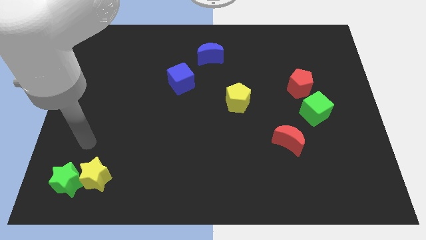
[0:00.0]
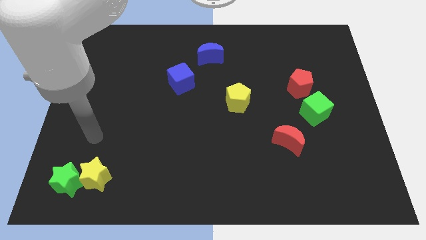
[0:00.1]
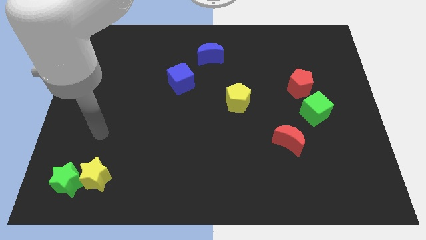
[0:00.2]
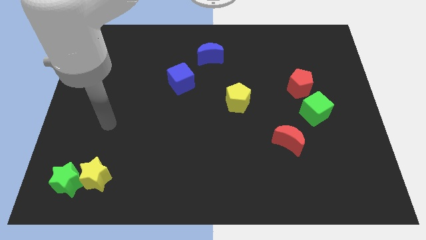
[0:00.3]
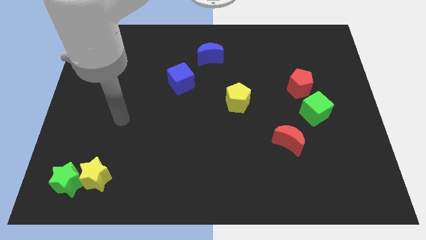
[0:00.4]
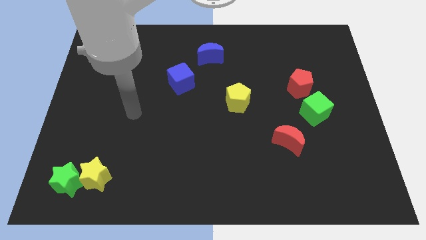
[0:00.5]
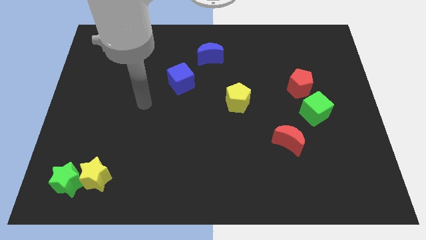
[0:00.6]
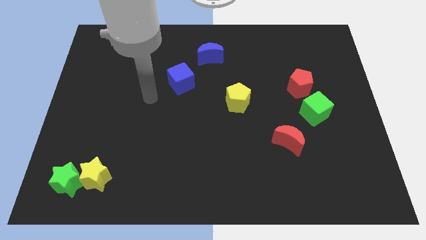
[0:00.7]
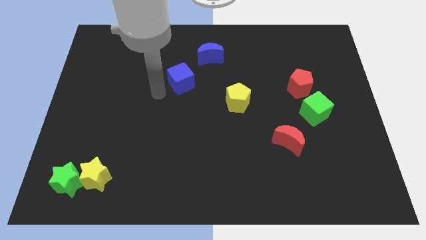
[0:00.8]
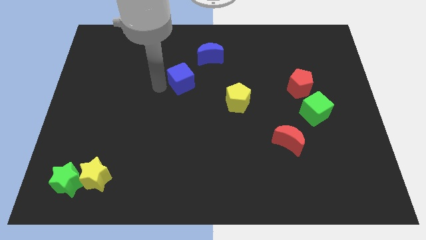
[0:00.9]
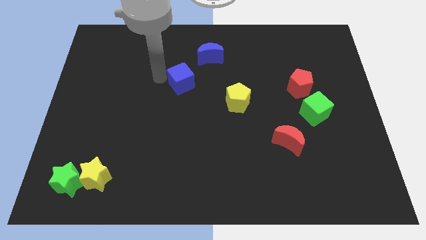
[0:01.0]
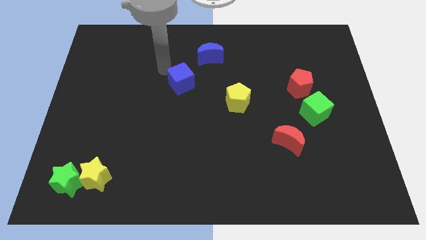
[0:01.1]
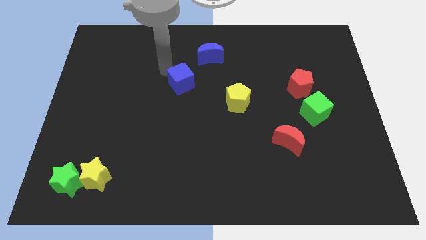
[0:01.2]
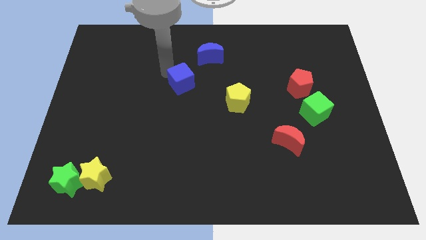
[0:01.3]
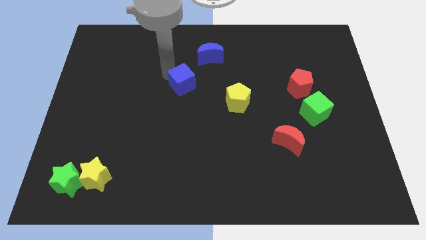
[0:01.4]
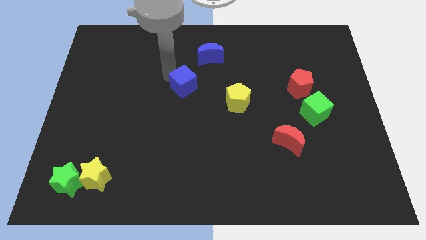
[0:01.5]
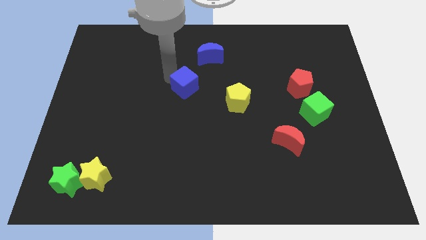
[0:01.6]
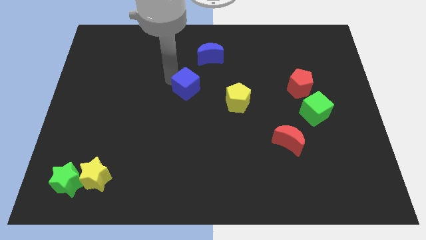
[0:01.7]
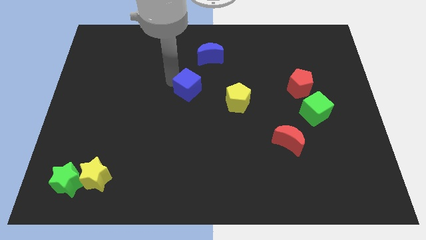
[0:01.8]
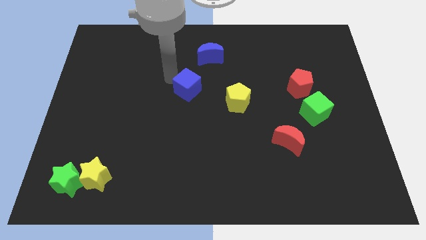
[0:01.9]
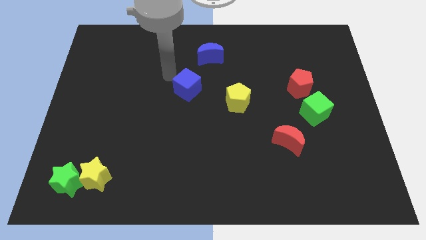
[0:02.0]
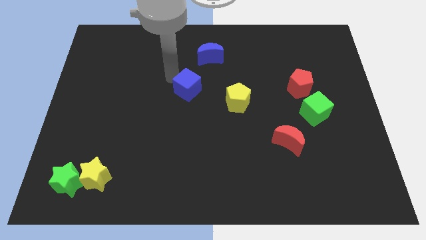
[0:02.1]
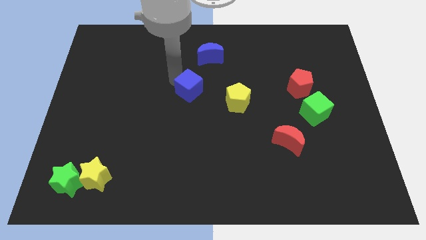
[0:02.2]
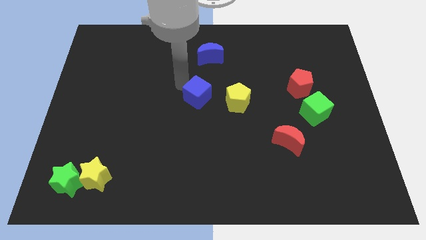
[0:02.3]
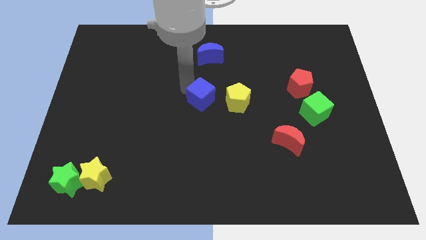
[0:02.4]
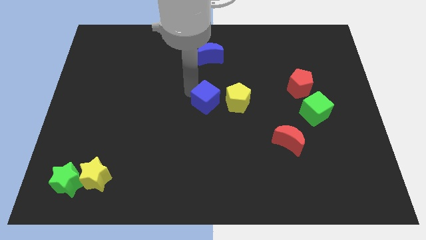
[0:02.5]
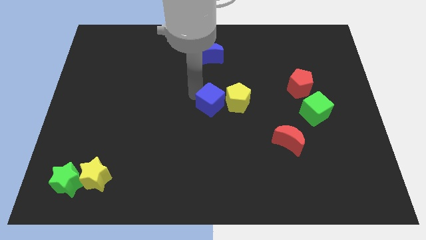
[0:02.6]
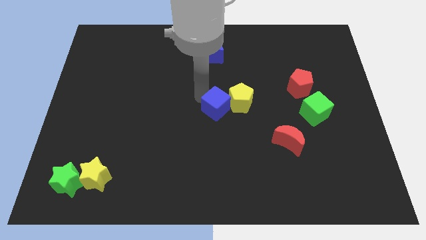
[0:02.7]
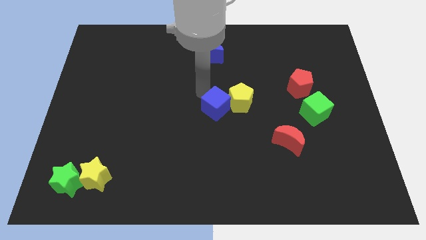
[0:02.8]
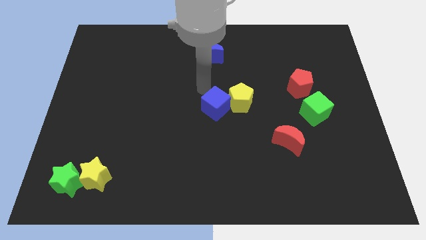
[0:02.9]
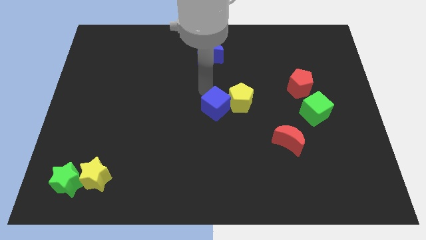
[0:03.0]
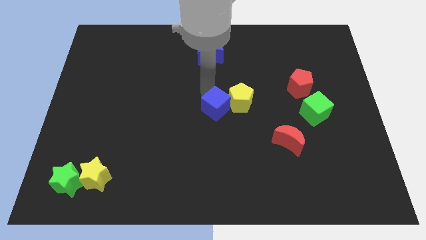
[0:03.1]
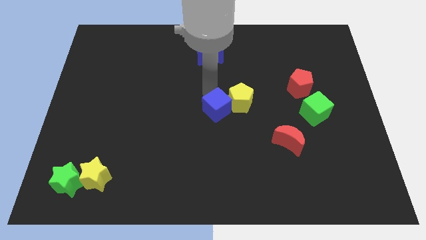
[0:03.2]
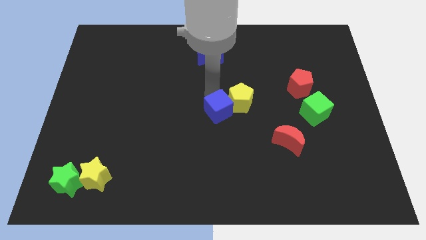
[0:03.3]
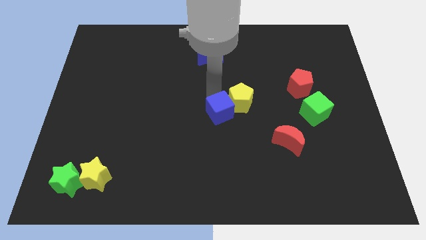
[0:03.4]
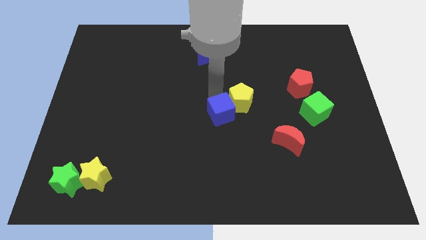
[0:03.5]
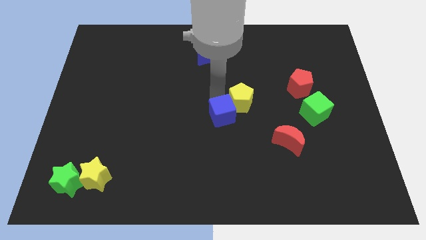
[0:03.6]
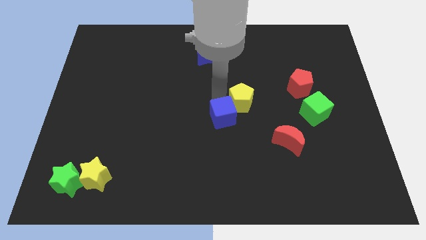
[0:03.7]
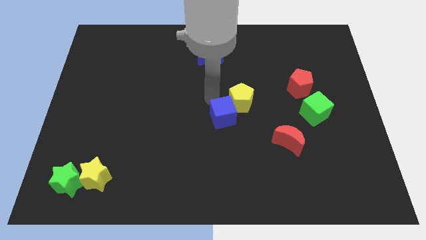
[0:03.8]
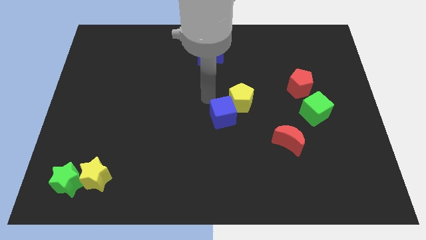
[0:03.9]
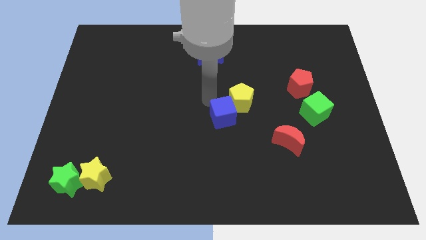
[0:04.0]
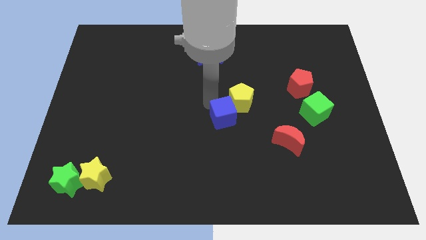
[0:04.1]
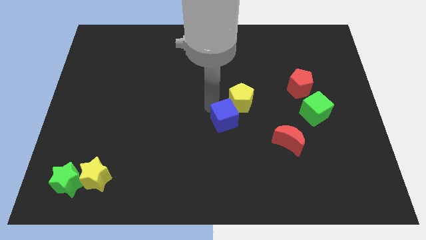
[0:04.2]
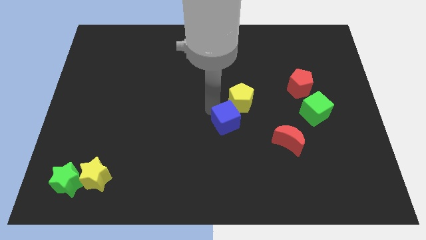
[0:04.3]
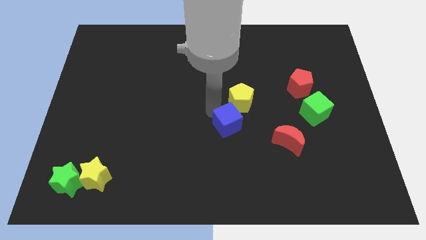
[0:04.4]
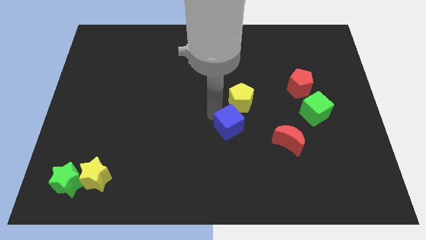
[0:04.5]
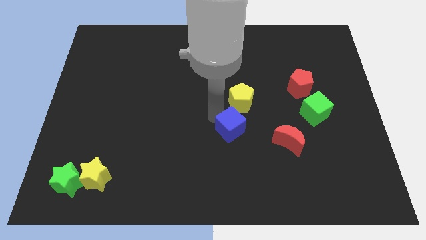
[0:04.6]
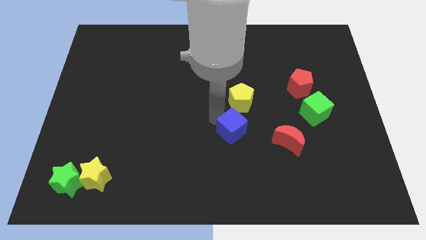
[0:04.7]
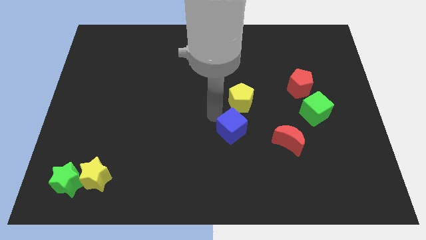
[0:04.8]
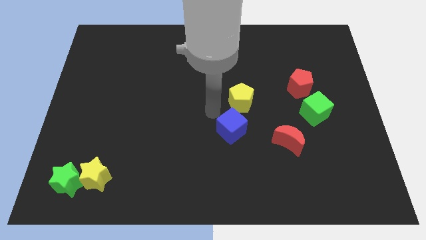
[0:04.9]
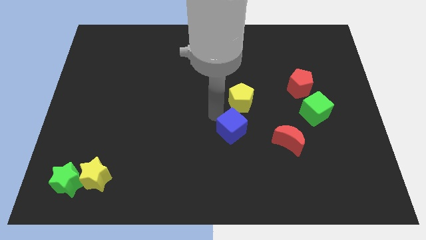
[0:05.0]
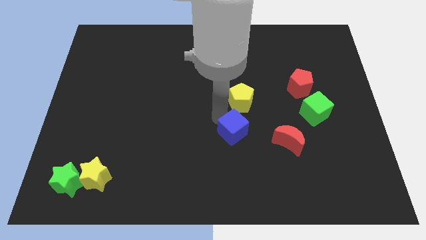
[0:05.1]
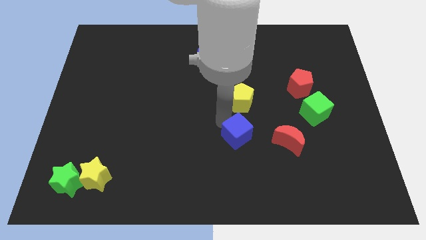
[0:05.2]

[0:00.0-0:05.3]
slide the blue cube down and right

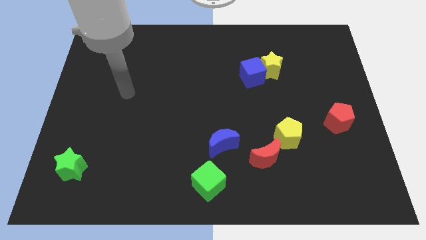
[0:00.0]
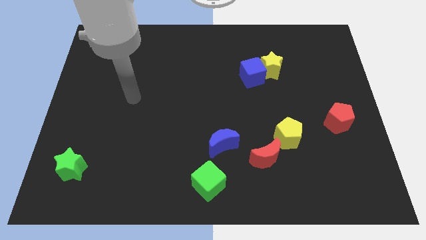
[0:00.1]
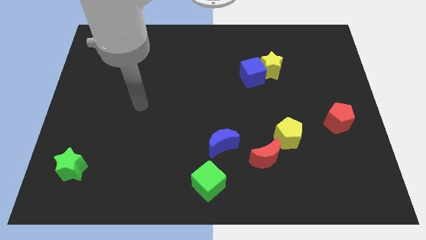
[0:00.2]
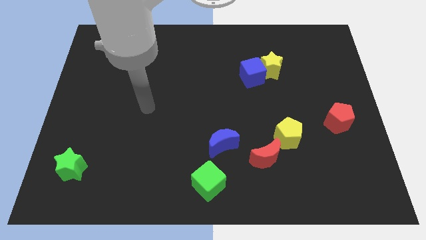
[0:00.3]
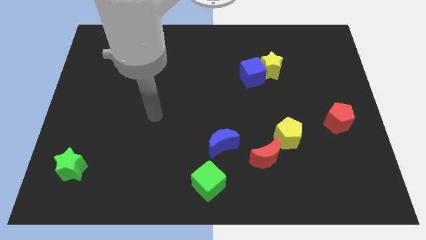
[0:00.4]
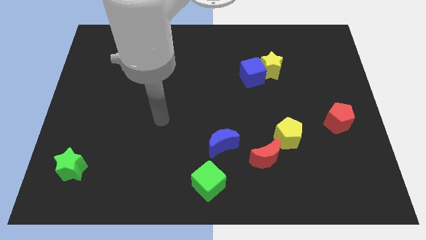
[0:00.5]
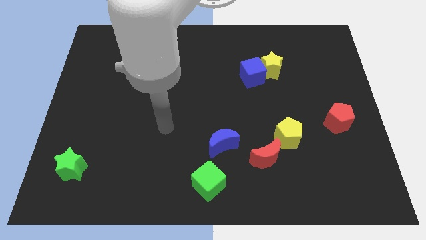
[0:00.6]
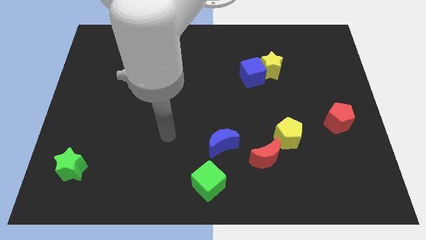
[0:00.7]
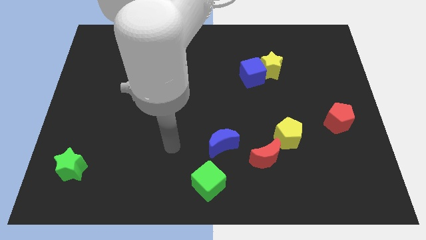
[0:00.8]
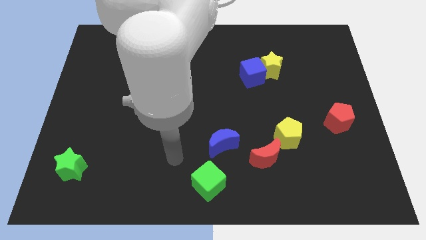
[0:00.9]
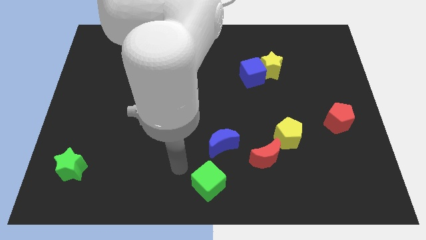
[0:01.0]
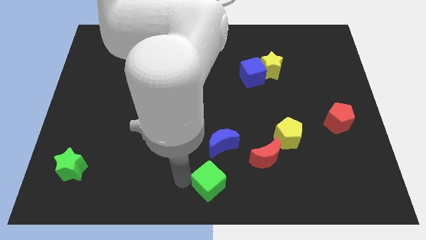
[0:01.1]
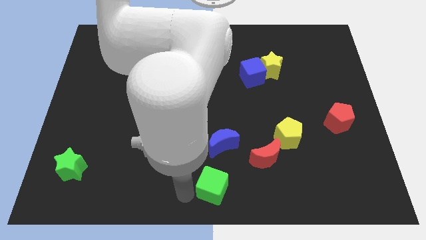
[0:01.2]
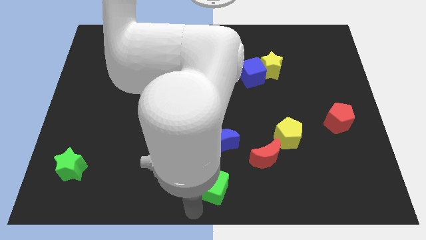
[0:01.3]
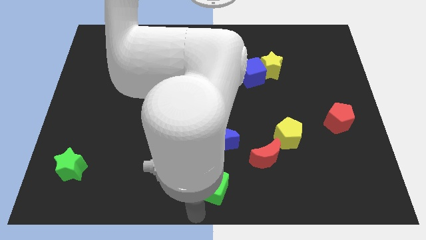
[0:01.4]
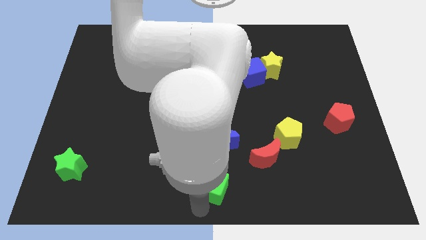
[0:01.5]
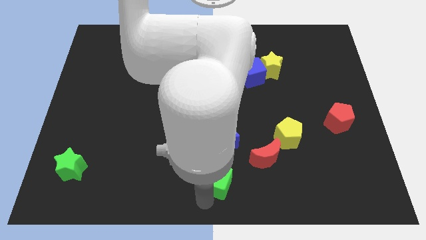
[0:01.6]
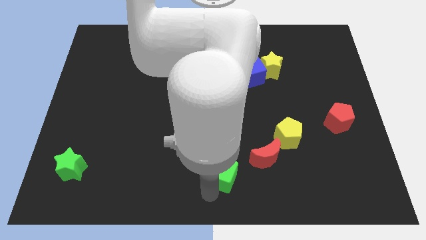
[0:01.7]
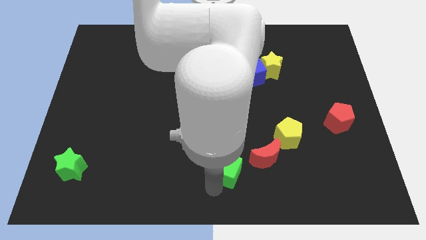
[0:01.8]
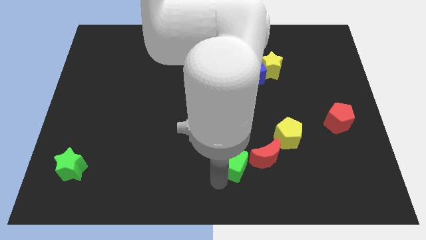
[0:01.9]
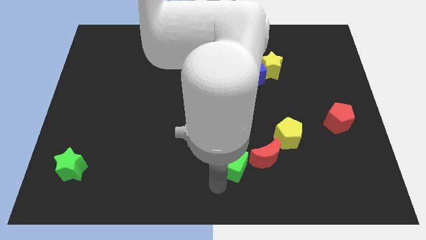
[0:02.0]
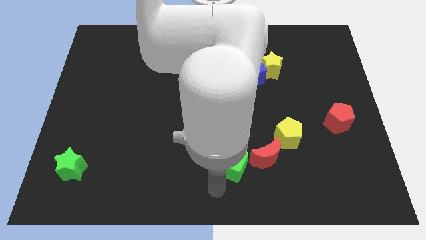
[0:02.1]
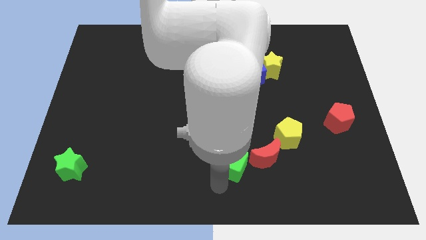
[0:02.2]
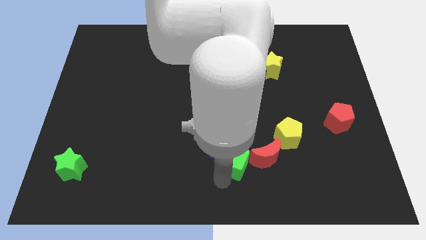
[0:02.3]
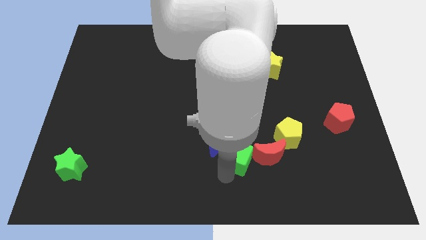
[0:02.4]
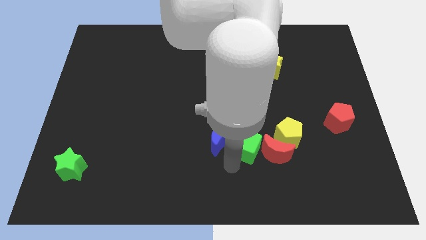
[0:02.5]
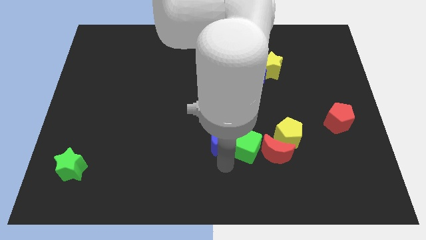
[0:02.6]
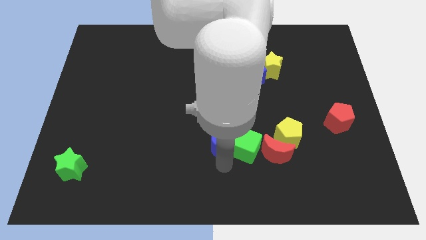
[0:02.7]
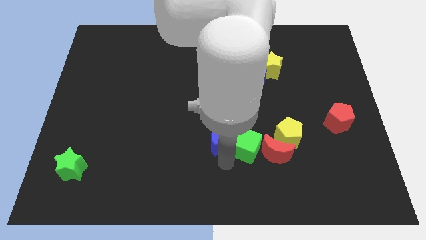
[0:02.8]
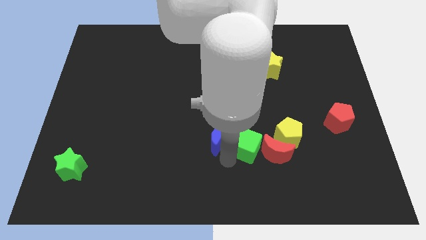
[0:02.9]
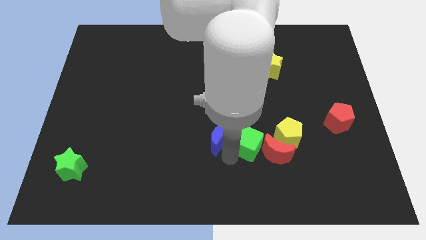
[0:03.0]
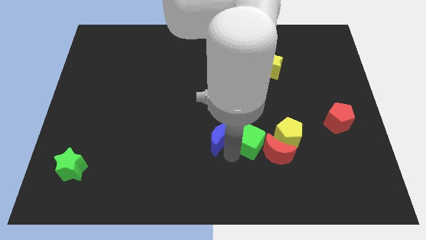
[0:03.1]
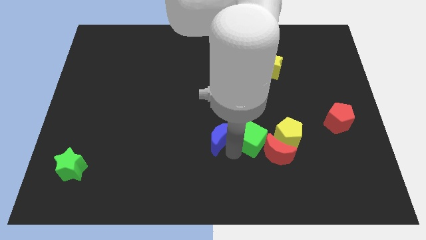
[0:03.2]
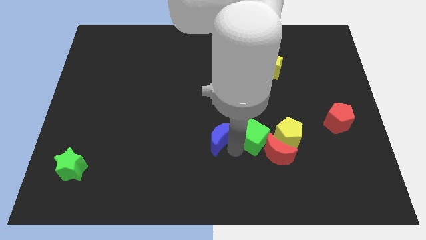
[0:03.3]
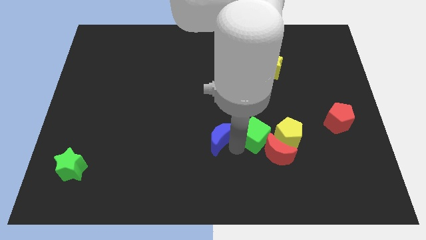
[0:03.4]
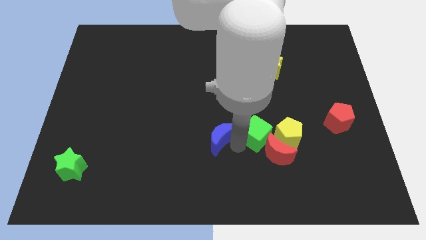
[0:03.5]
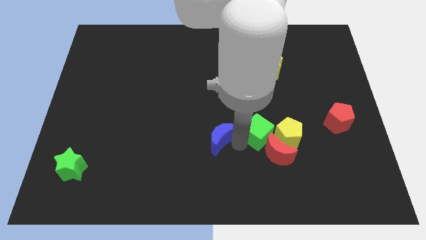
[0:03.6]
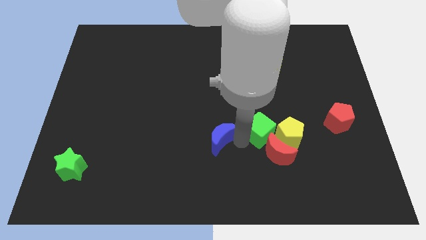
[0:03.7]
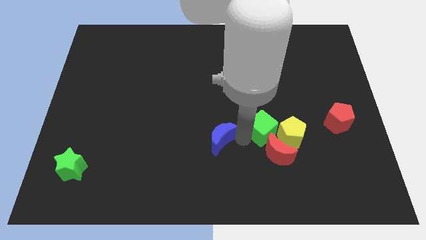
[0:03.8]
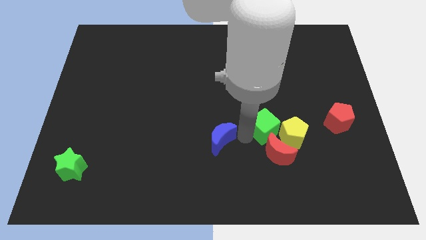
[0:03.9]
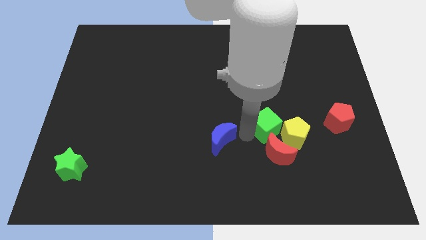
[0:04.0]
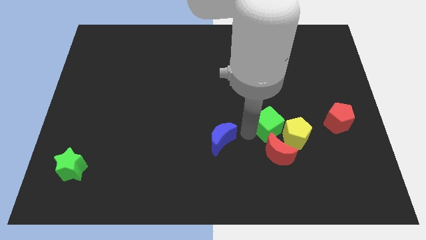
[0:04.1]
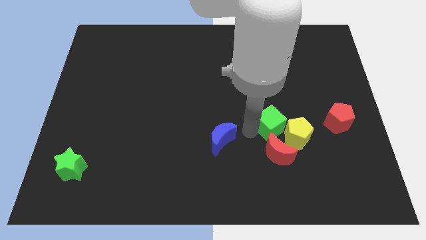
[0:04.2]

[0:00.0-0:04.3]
move the green cube up and right
